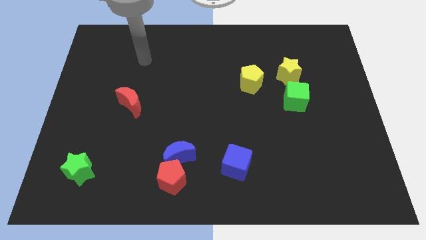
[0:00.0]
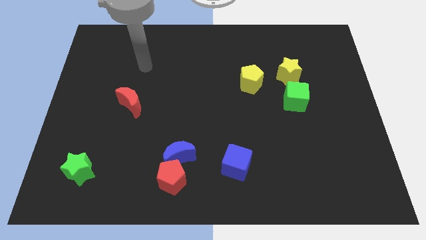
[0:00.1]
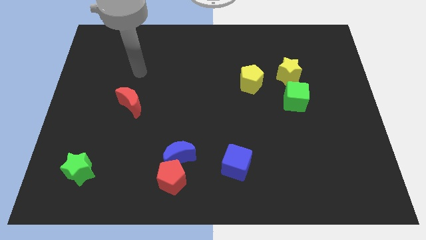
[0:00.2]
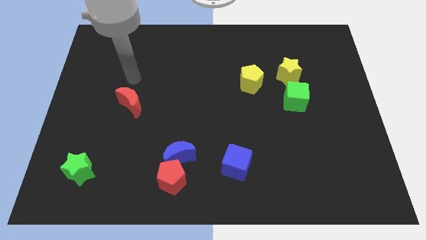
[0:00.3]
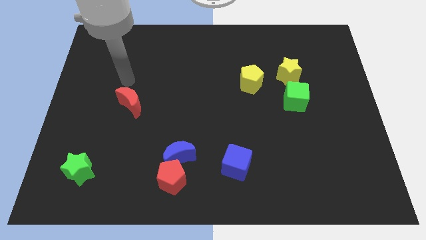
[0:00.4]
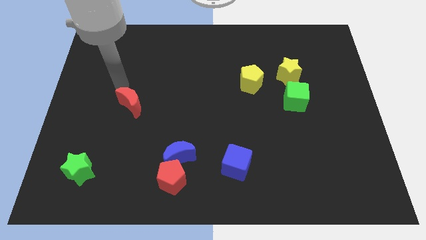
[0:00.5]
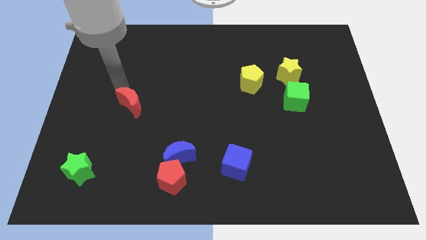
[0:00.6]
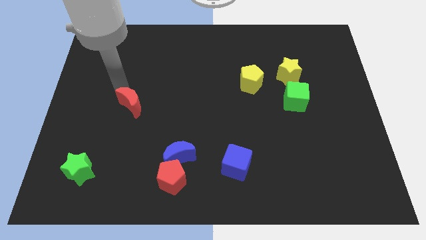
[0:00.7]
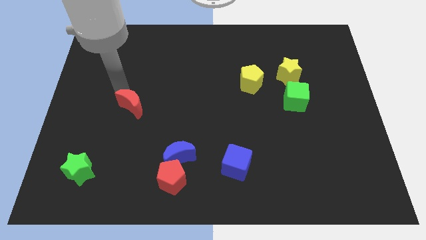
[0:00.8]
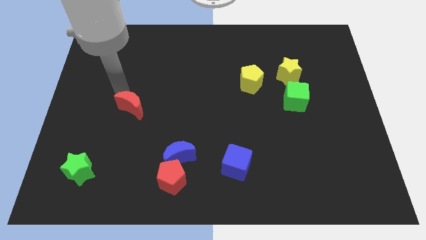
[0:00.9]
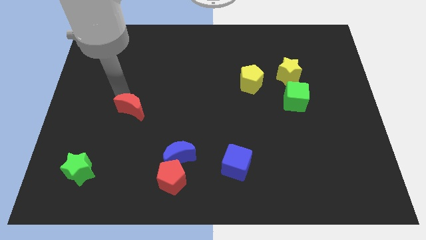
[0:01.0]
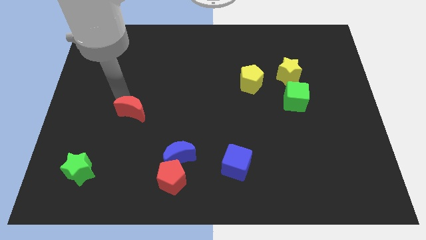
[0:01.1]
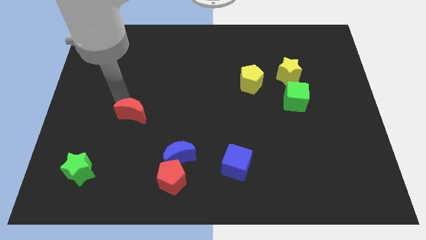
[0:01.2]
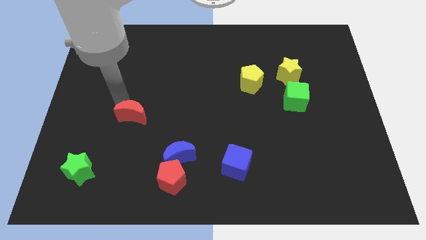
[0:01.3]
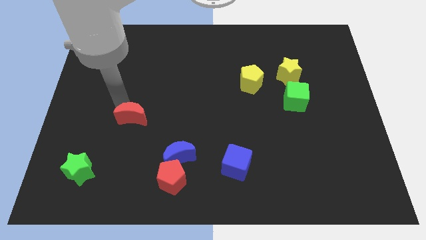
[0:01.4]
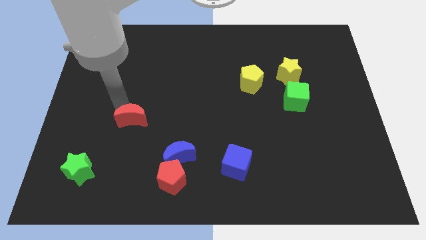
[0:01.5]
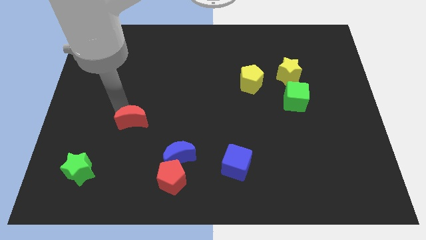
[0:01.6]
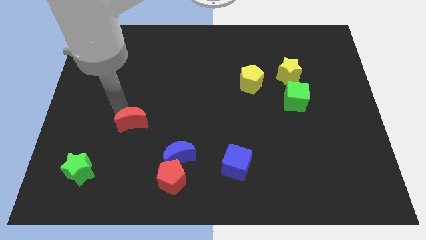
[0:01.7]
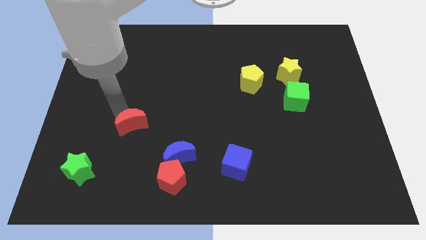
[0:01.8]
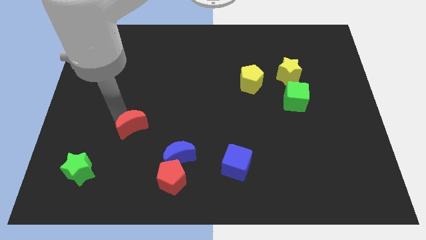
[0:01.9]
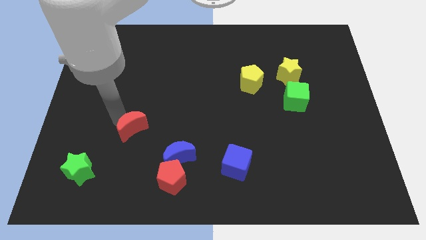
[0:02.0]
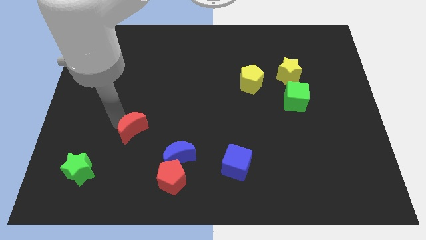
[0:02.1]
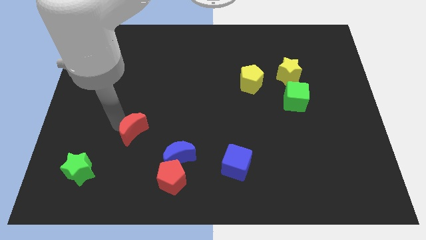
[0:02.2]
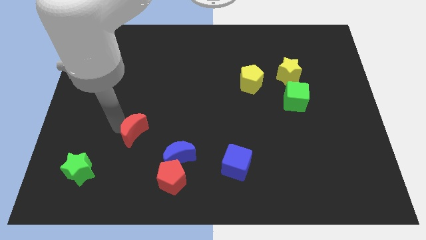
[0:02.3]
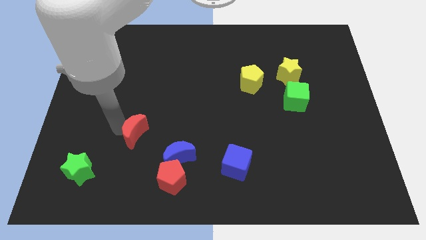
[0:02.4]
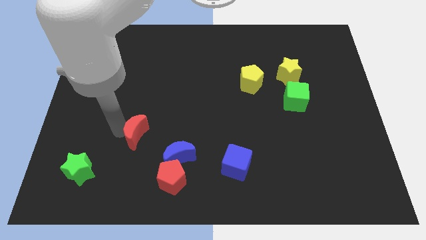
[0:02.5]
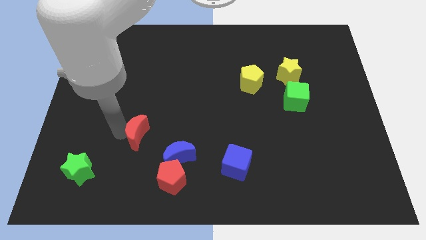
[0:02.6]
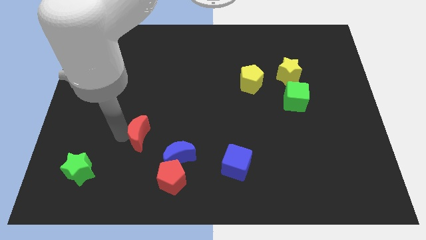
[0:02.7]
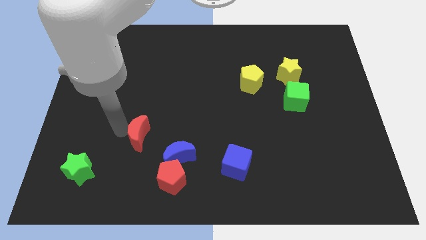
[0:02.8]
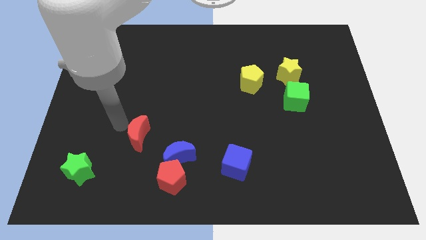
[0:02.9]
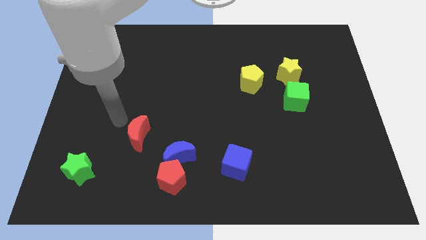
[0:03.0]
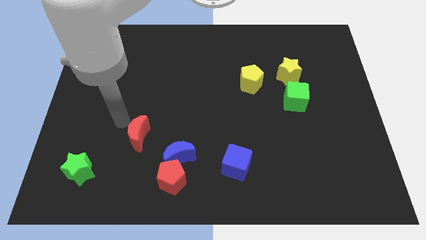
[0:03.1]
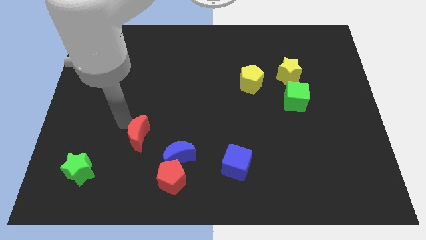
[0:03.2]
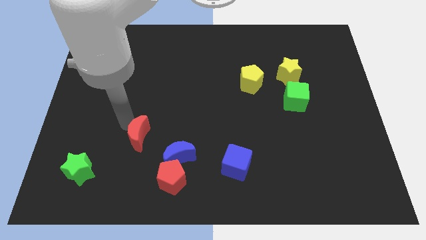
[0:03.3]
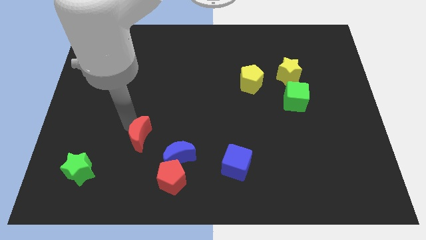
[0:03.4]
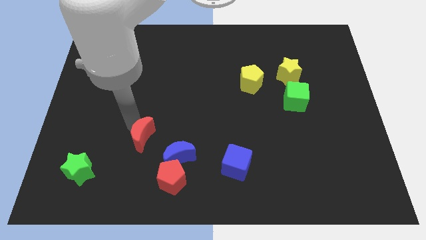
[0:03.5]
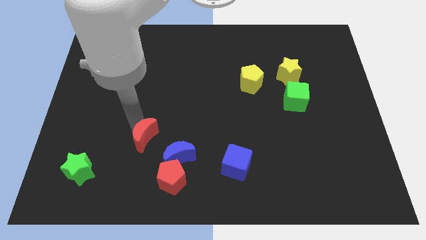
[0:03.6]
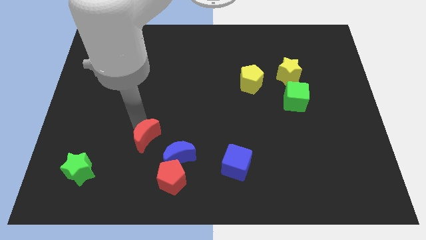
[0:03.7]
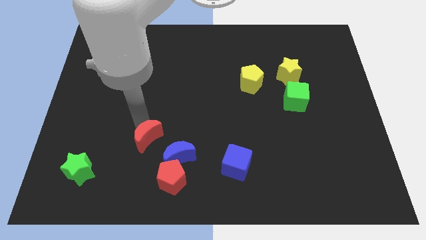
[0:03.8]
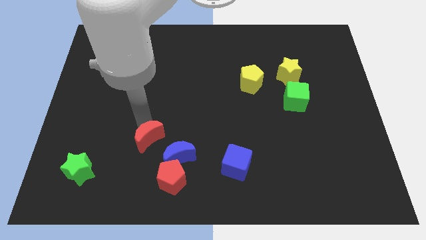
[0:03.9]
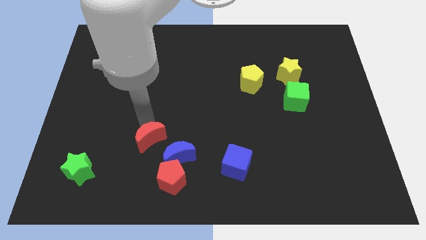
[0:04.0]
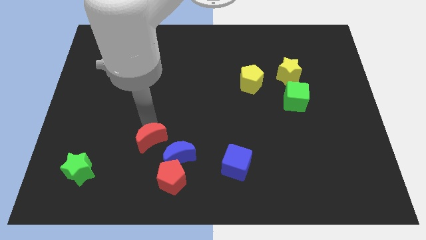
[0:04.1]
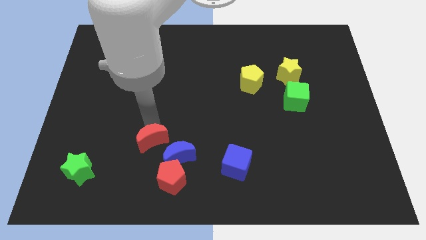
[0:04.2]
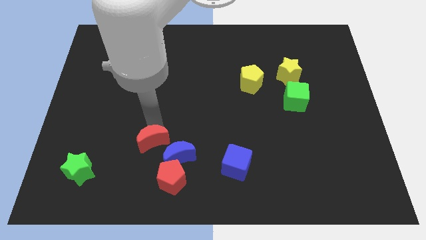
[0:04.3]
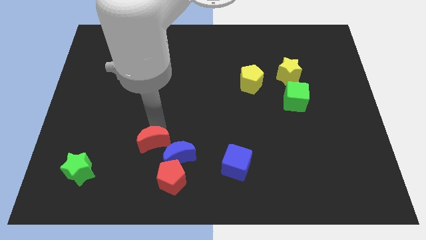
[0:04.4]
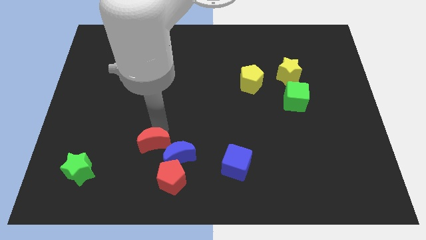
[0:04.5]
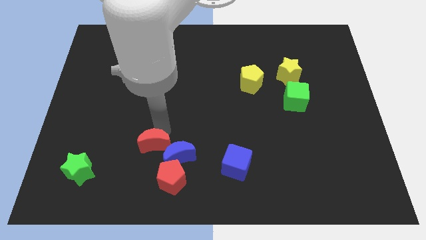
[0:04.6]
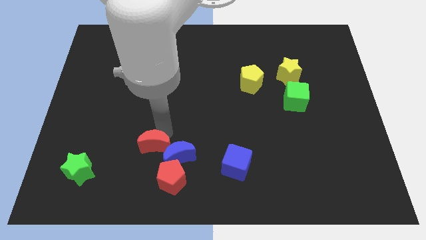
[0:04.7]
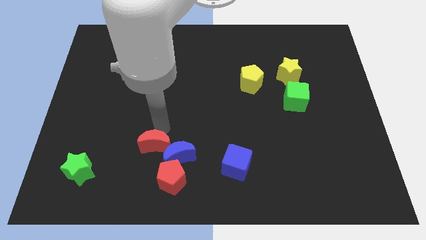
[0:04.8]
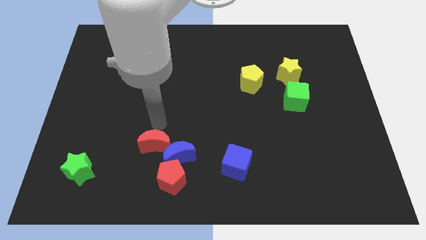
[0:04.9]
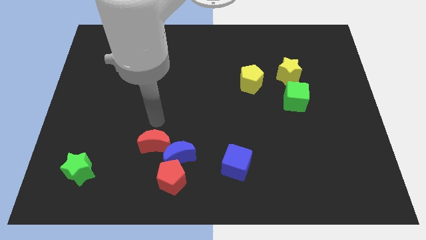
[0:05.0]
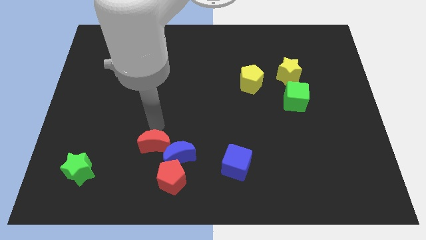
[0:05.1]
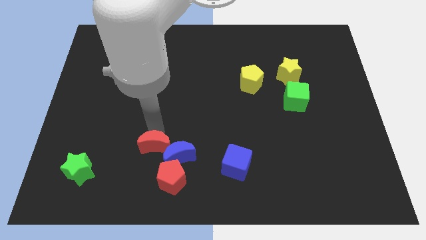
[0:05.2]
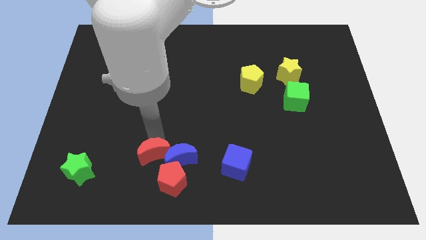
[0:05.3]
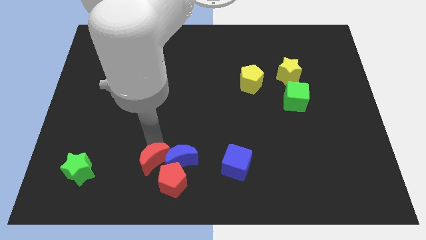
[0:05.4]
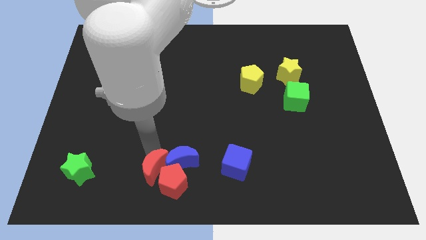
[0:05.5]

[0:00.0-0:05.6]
push the red moon to the red pentagon

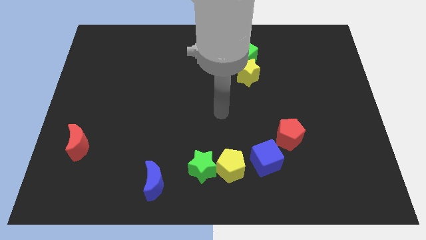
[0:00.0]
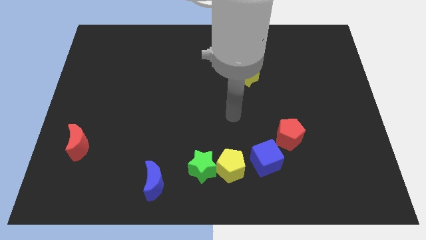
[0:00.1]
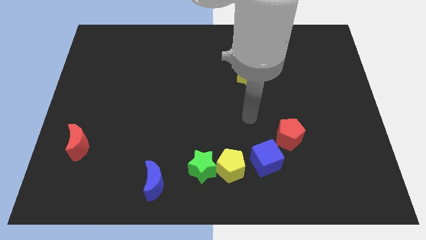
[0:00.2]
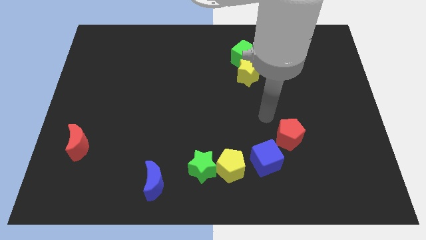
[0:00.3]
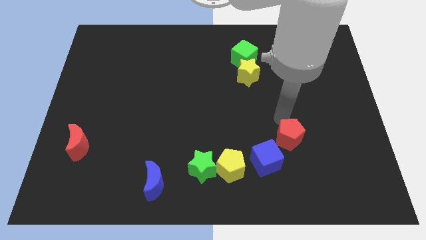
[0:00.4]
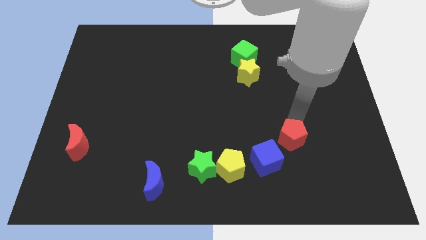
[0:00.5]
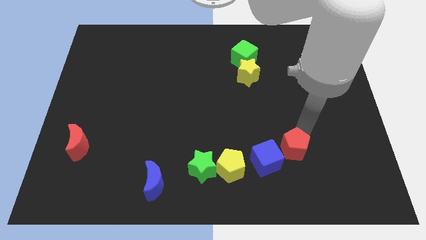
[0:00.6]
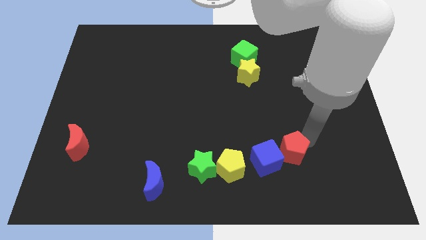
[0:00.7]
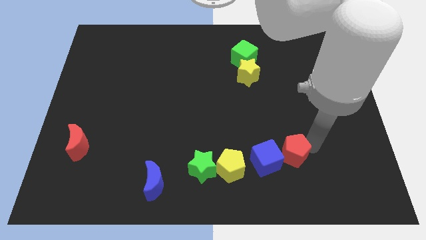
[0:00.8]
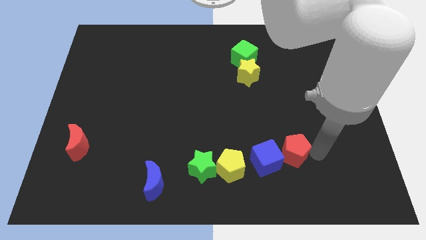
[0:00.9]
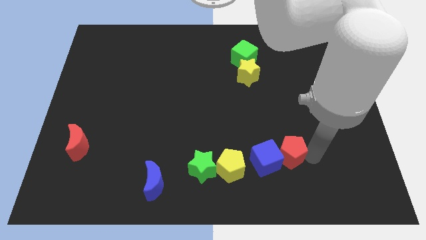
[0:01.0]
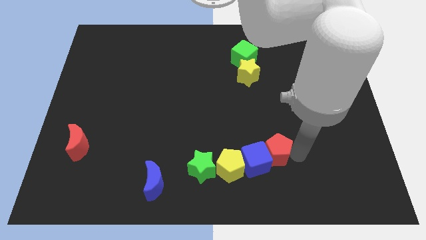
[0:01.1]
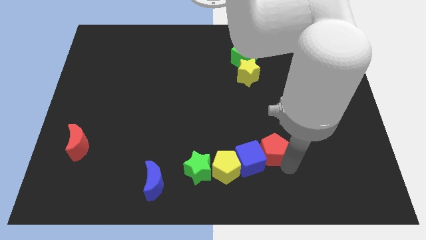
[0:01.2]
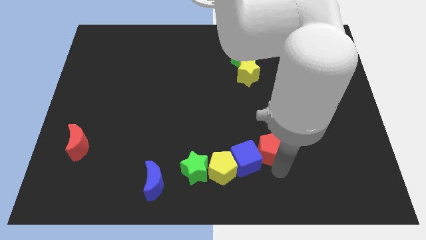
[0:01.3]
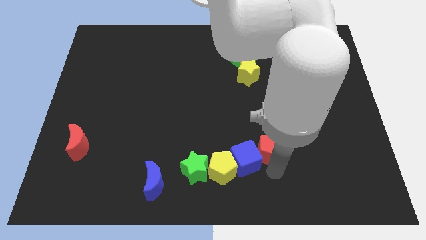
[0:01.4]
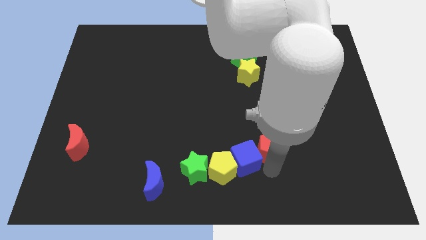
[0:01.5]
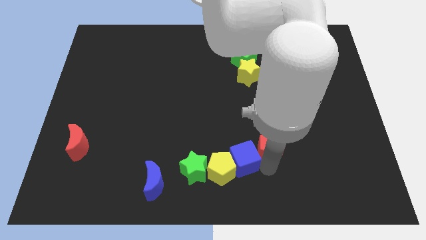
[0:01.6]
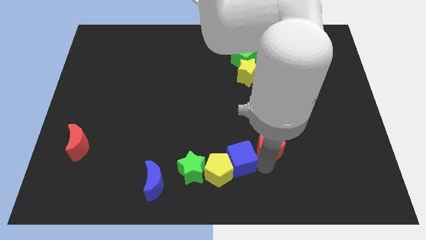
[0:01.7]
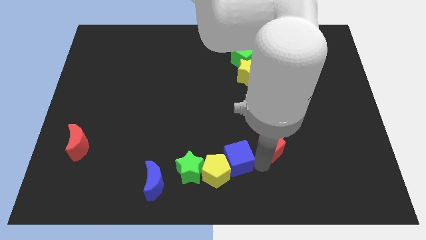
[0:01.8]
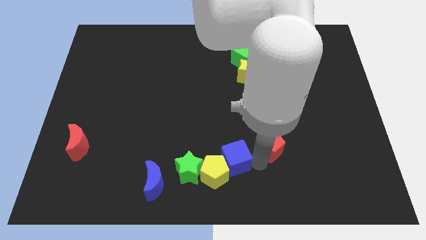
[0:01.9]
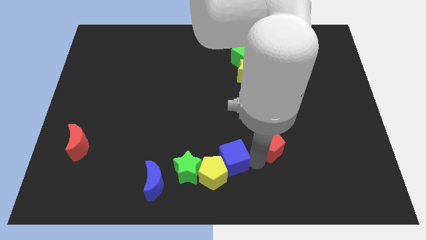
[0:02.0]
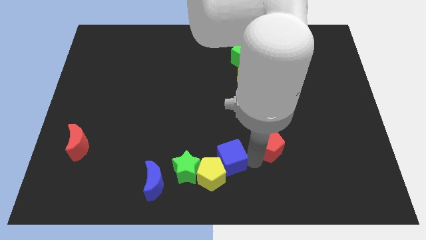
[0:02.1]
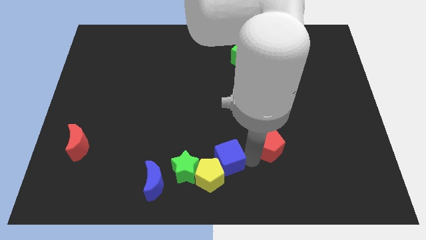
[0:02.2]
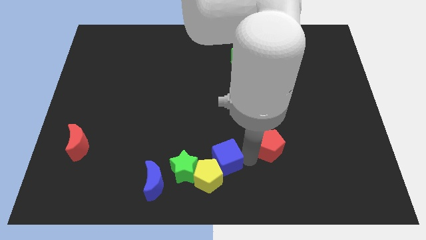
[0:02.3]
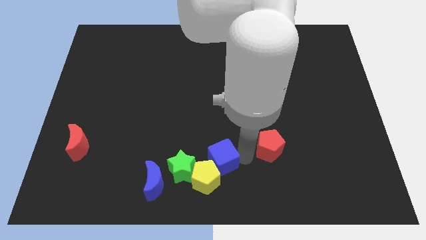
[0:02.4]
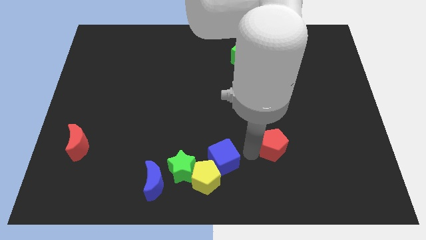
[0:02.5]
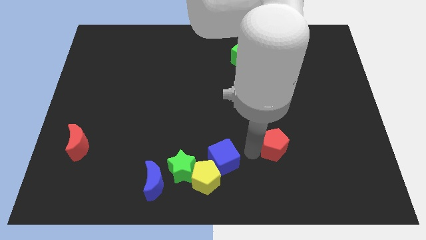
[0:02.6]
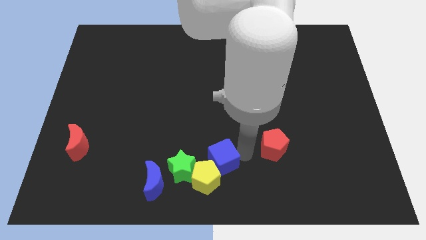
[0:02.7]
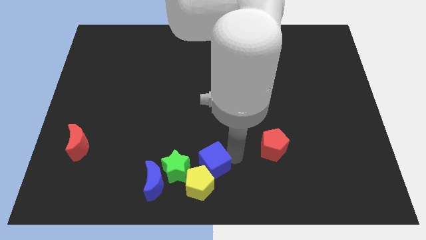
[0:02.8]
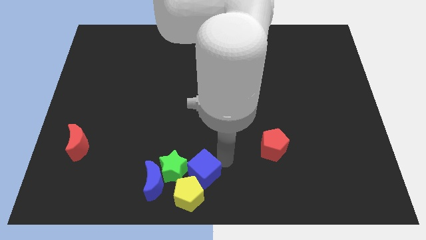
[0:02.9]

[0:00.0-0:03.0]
move the blue cube next to the green star
